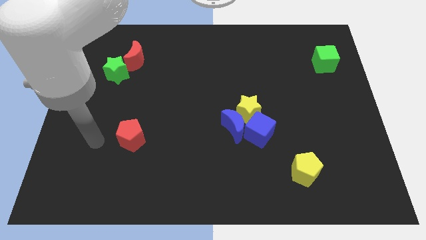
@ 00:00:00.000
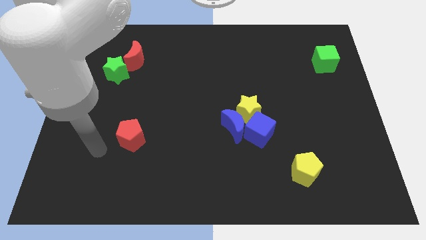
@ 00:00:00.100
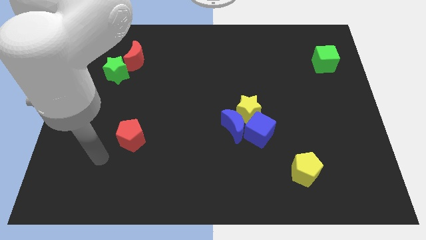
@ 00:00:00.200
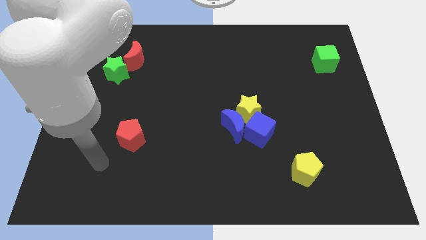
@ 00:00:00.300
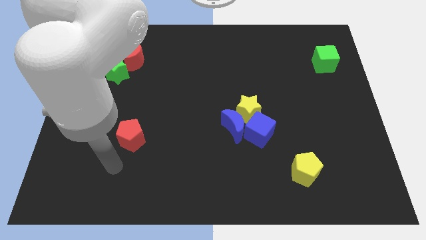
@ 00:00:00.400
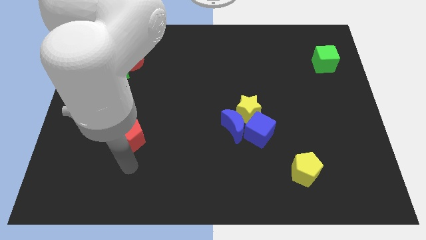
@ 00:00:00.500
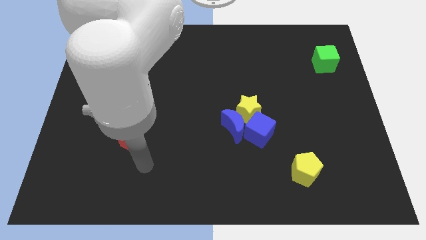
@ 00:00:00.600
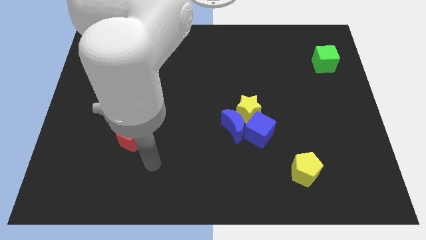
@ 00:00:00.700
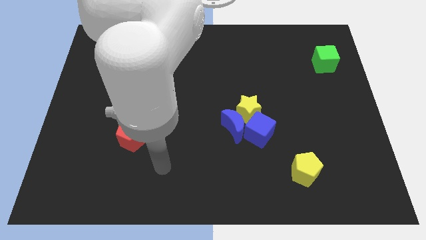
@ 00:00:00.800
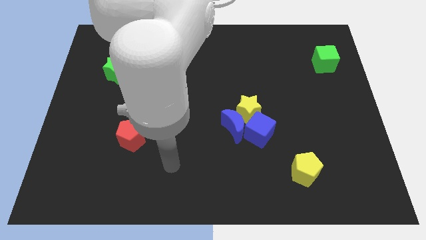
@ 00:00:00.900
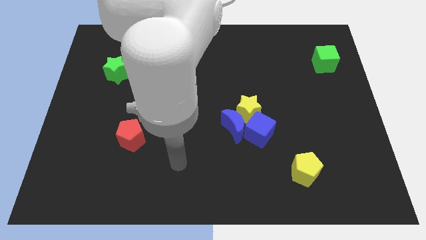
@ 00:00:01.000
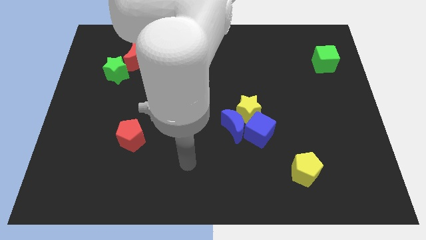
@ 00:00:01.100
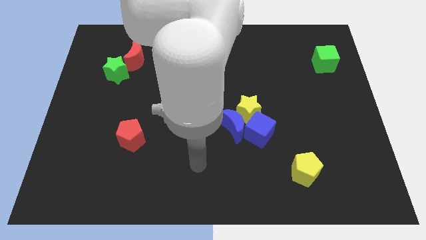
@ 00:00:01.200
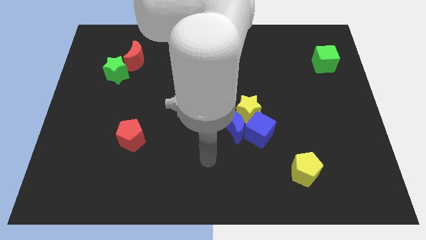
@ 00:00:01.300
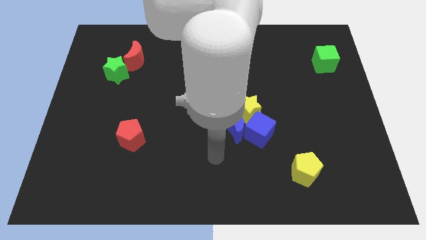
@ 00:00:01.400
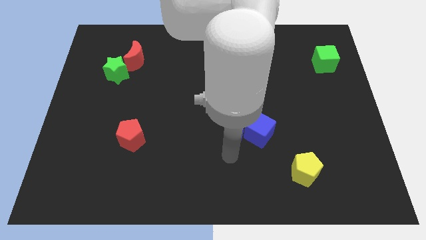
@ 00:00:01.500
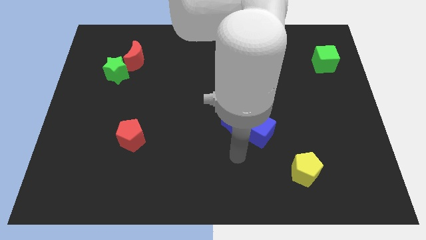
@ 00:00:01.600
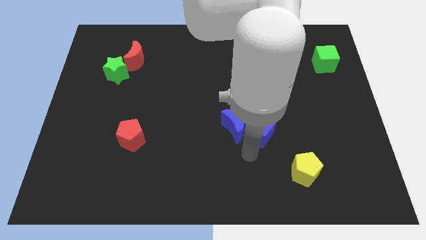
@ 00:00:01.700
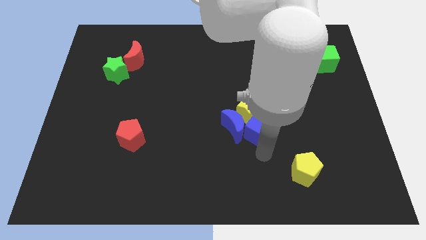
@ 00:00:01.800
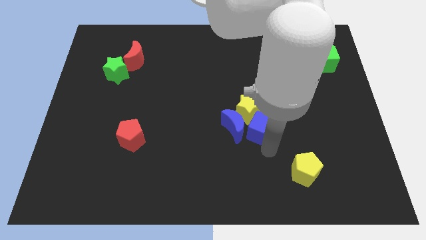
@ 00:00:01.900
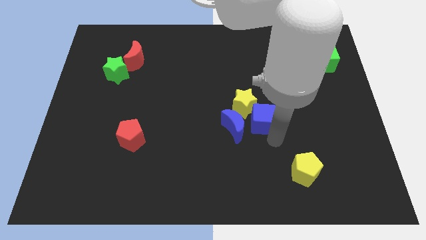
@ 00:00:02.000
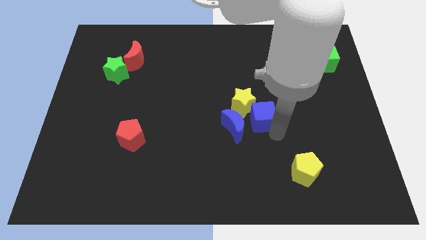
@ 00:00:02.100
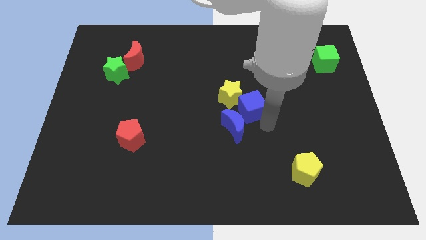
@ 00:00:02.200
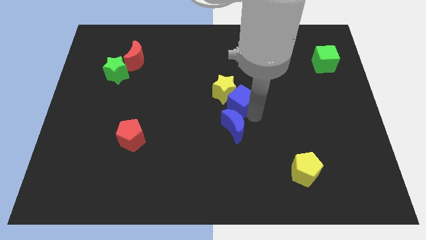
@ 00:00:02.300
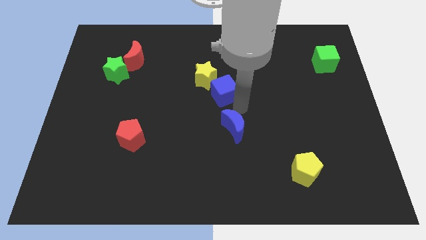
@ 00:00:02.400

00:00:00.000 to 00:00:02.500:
move the blue moon away from the yellow star and blue cube

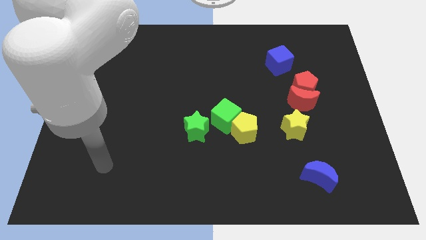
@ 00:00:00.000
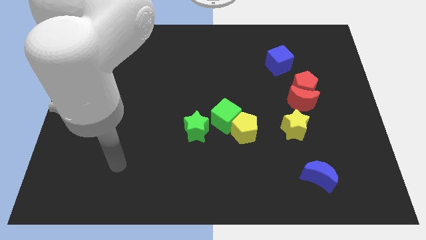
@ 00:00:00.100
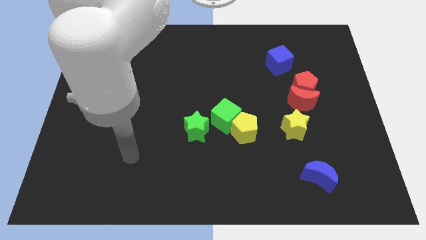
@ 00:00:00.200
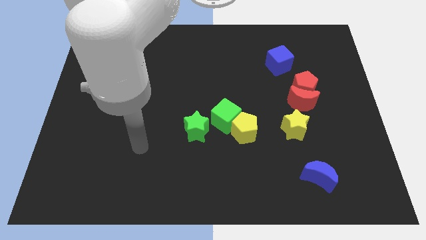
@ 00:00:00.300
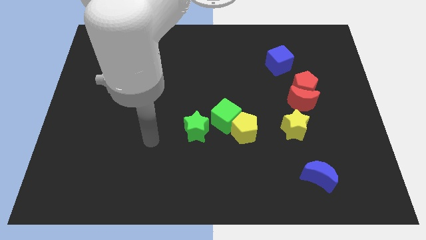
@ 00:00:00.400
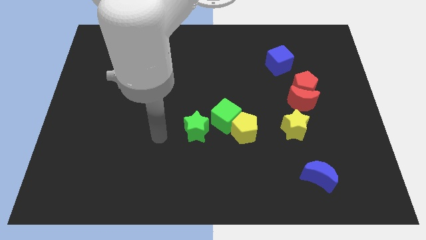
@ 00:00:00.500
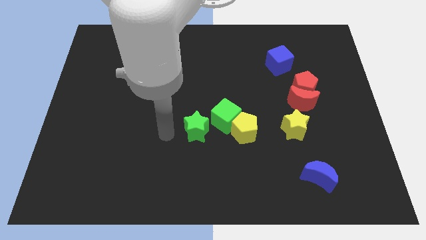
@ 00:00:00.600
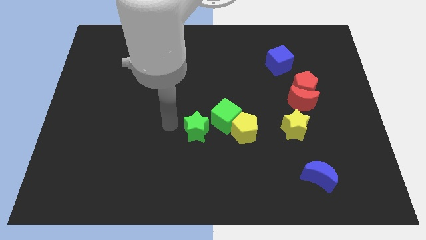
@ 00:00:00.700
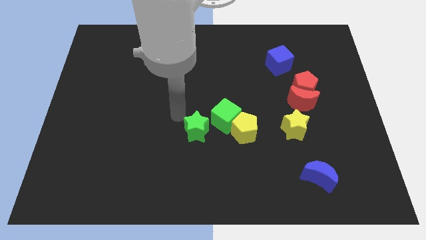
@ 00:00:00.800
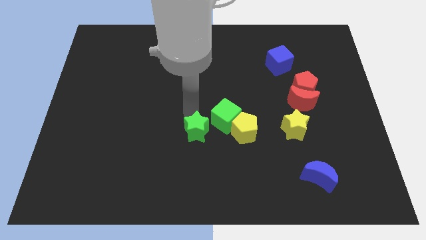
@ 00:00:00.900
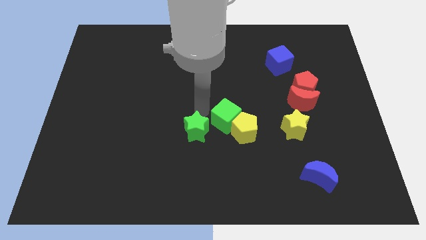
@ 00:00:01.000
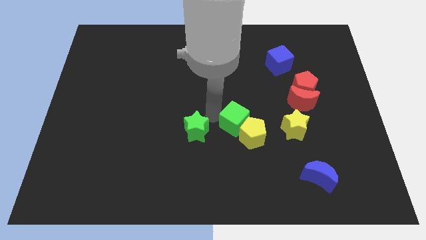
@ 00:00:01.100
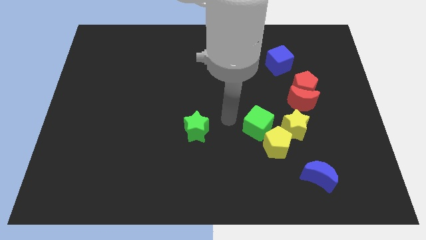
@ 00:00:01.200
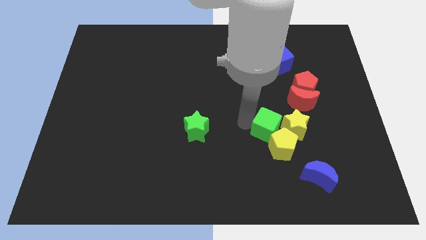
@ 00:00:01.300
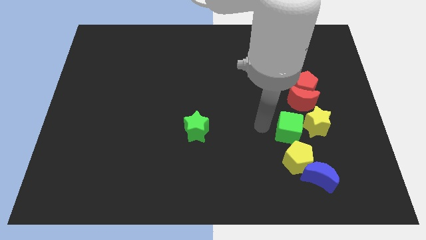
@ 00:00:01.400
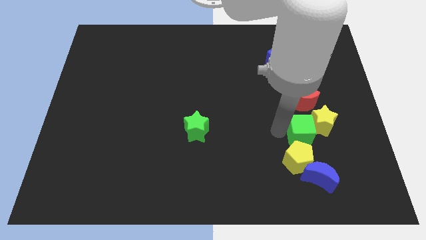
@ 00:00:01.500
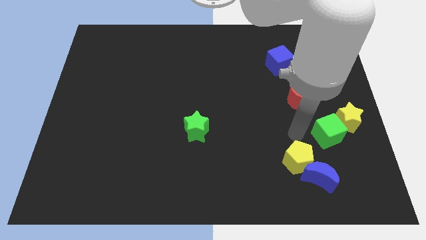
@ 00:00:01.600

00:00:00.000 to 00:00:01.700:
separate the yellow pentagon from the green cube

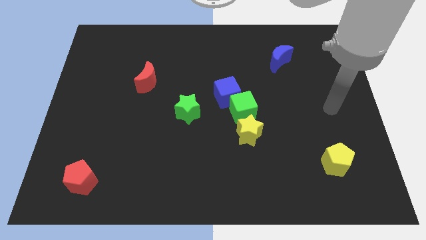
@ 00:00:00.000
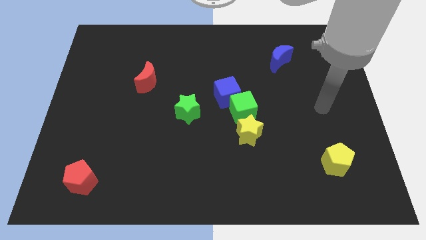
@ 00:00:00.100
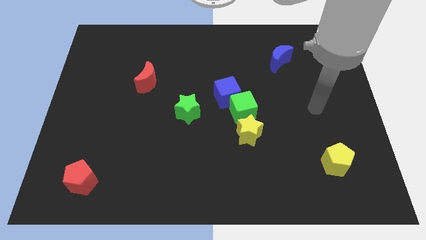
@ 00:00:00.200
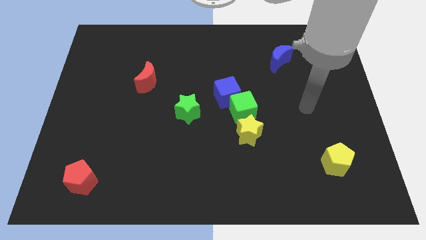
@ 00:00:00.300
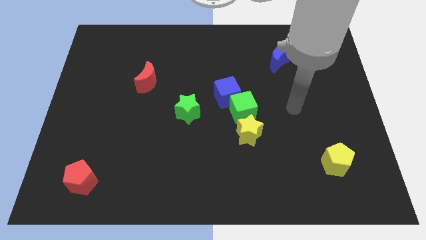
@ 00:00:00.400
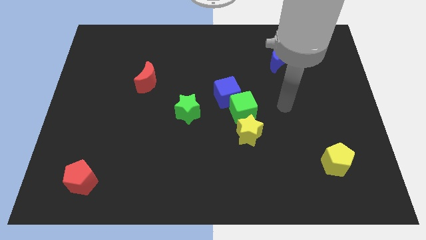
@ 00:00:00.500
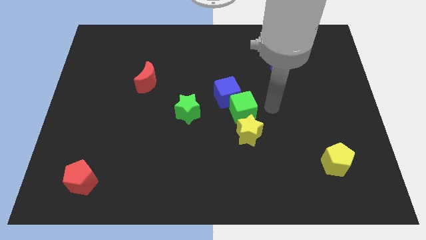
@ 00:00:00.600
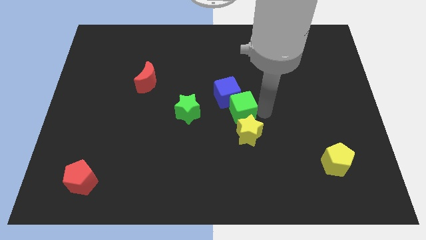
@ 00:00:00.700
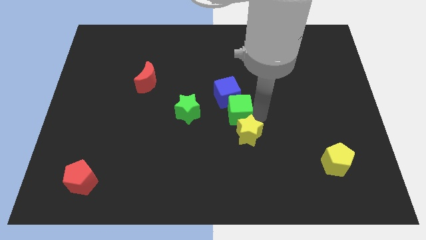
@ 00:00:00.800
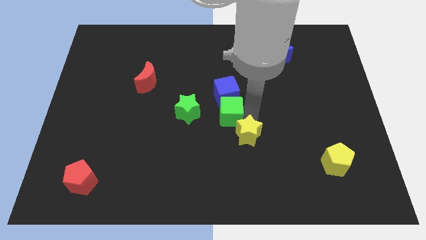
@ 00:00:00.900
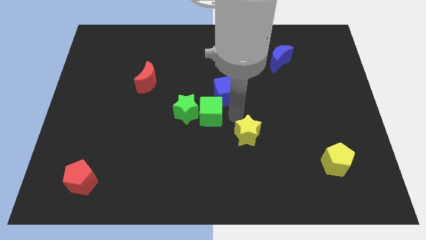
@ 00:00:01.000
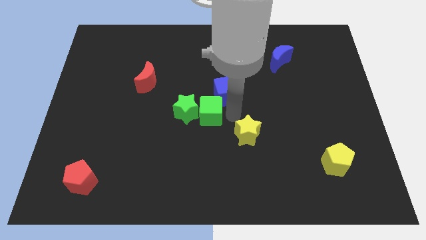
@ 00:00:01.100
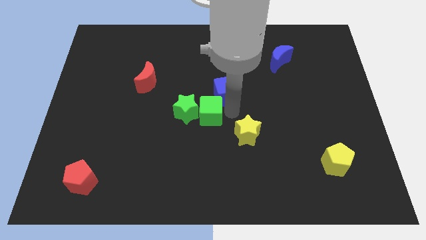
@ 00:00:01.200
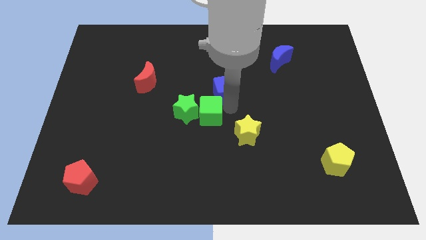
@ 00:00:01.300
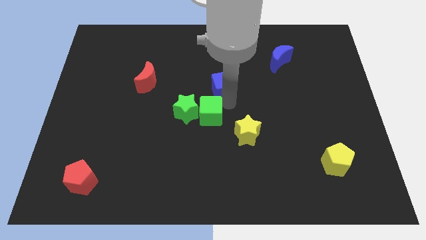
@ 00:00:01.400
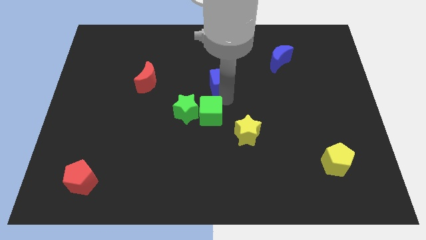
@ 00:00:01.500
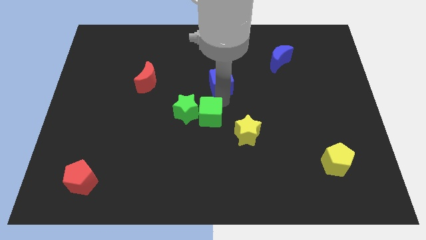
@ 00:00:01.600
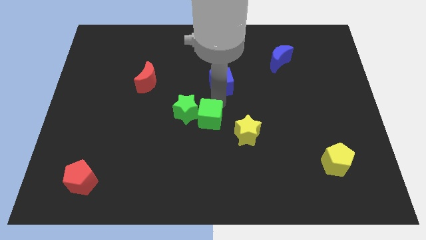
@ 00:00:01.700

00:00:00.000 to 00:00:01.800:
move the blue cube away from the green cube

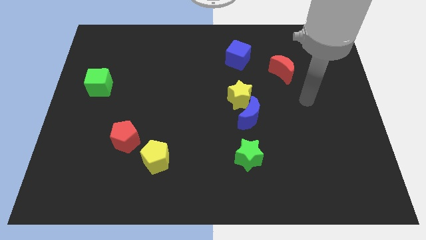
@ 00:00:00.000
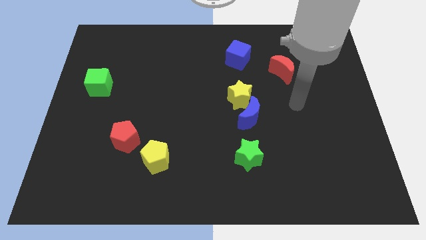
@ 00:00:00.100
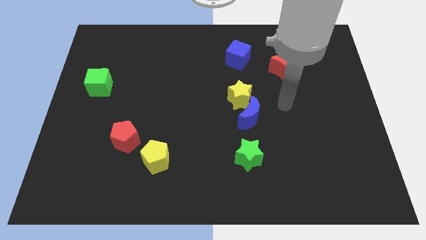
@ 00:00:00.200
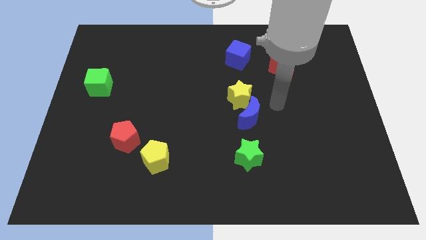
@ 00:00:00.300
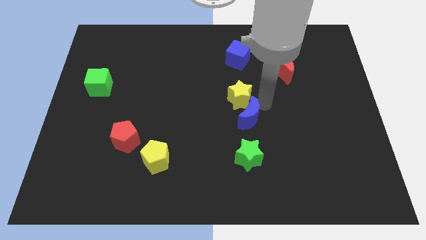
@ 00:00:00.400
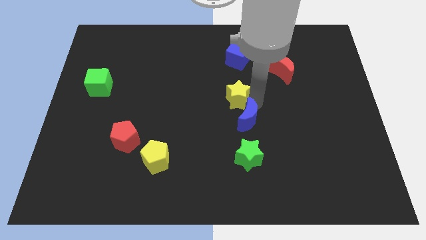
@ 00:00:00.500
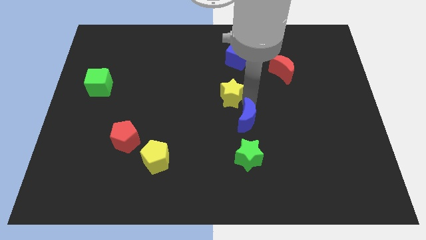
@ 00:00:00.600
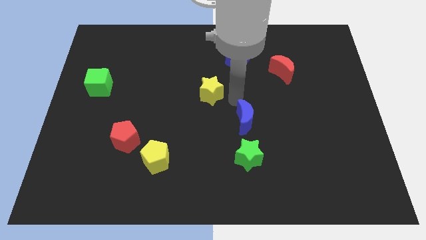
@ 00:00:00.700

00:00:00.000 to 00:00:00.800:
pull the blue moon apart from the yellow star

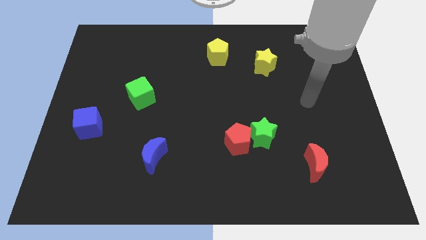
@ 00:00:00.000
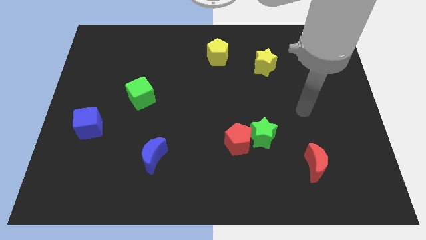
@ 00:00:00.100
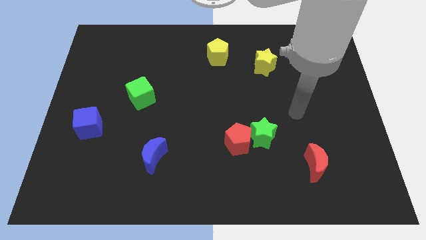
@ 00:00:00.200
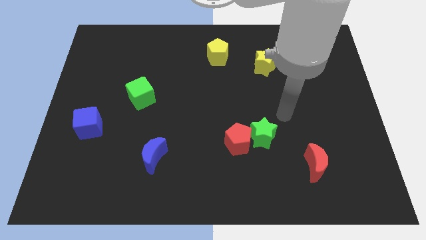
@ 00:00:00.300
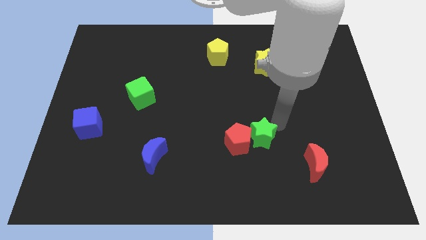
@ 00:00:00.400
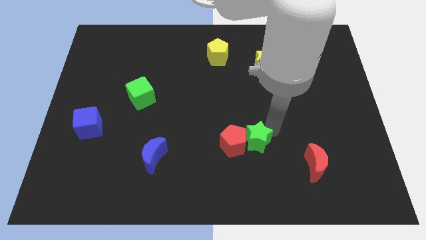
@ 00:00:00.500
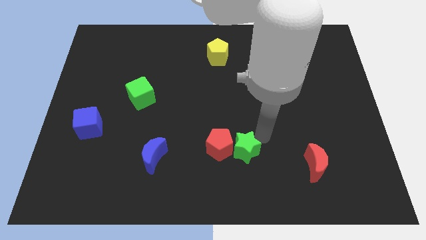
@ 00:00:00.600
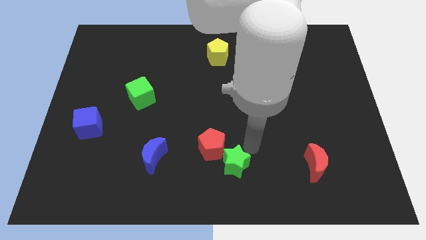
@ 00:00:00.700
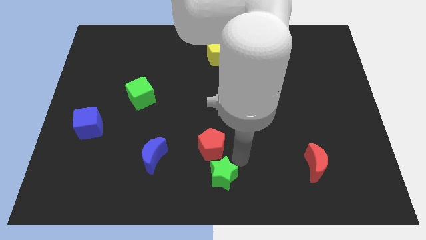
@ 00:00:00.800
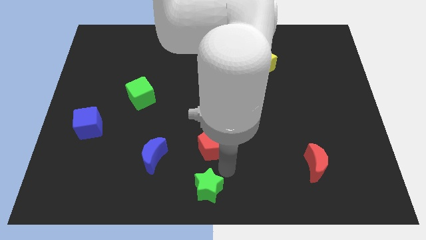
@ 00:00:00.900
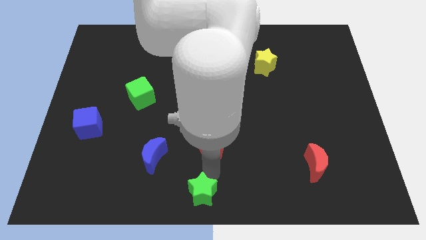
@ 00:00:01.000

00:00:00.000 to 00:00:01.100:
pull the red pentagon apart from the green star

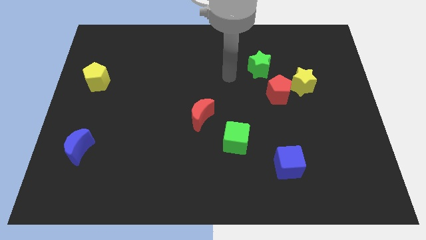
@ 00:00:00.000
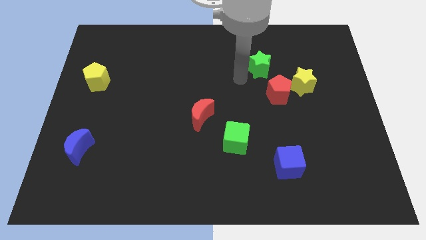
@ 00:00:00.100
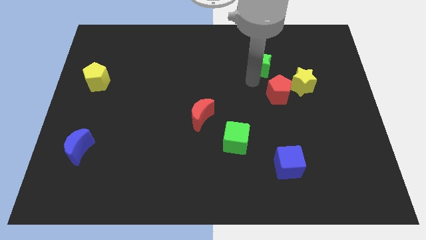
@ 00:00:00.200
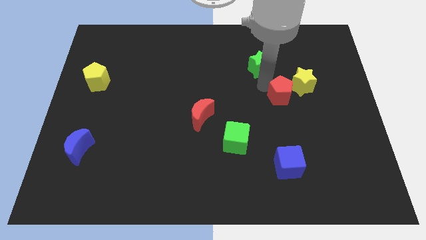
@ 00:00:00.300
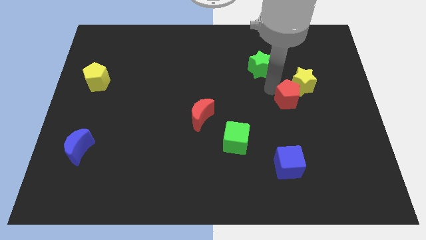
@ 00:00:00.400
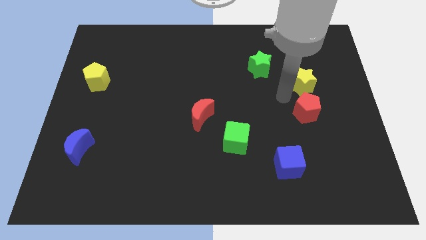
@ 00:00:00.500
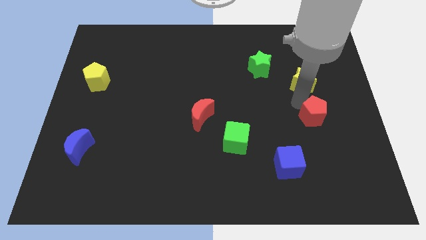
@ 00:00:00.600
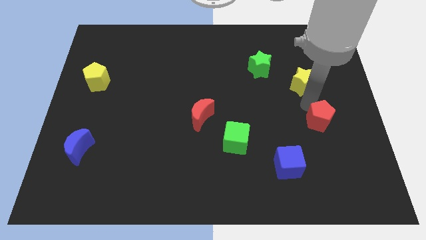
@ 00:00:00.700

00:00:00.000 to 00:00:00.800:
pull the yellow star apart from the red pentagon

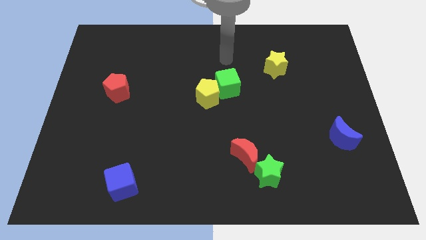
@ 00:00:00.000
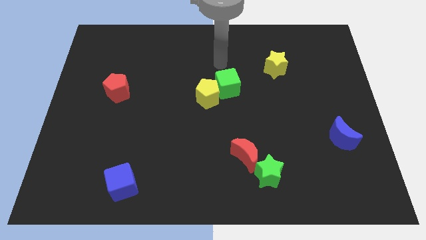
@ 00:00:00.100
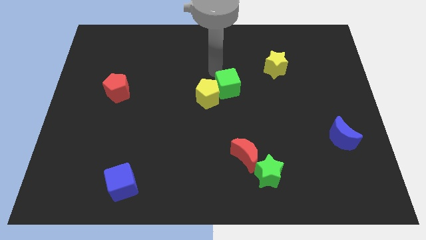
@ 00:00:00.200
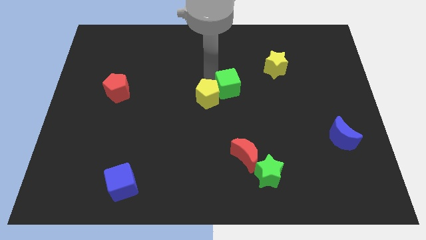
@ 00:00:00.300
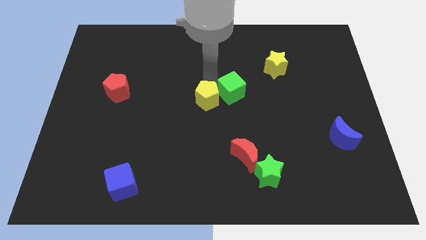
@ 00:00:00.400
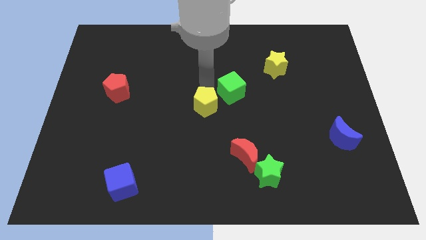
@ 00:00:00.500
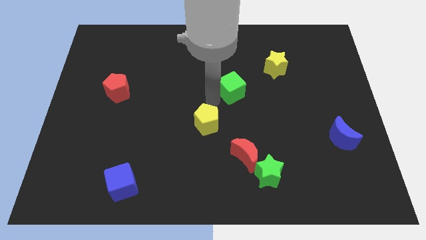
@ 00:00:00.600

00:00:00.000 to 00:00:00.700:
separate the green cube from the yellow pentagon
